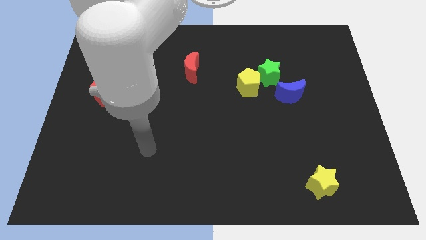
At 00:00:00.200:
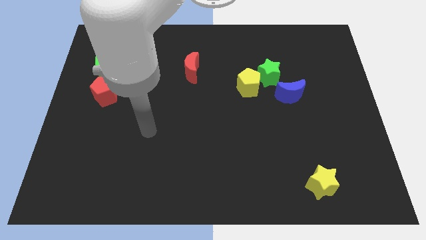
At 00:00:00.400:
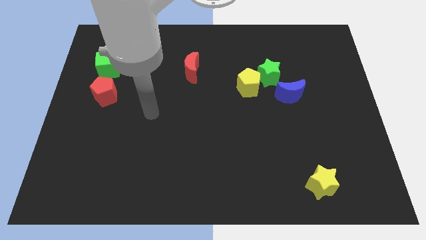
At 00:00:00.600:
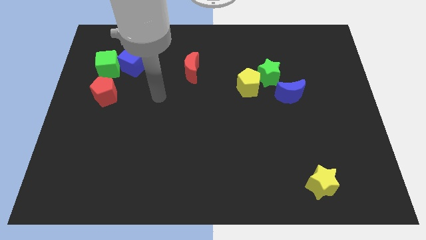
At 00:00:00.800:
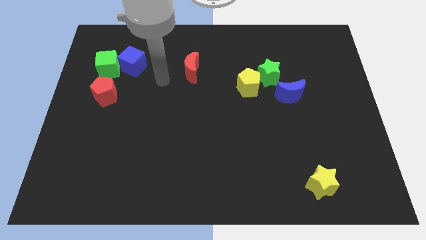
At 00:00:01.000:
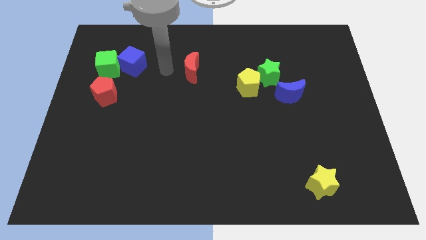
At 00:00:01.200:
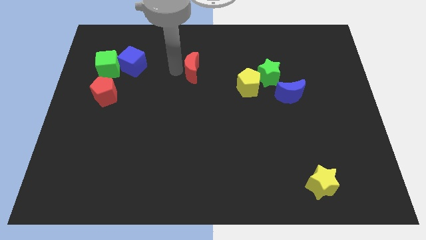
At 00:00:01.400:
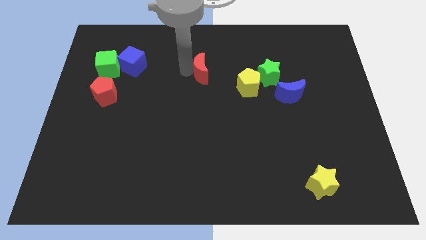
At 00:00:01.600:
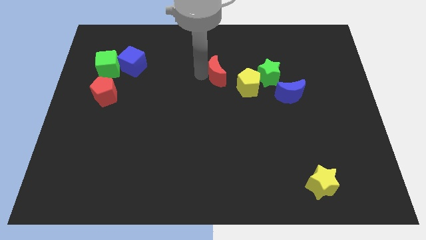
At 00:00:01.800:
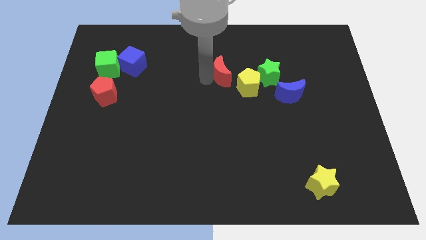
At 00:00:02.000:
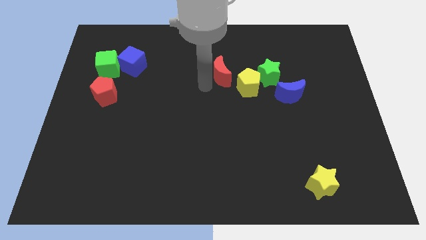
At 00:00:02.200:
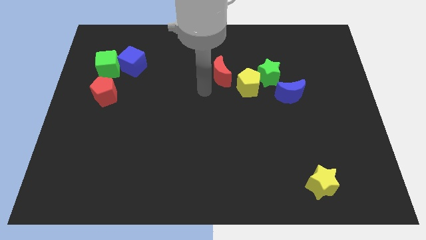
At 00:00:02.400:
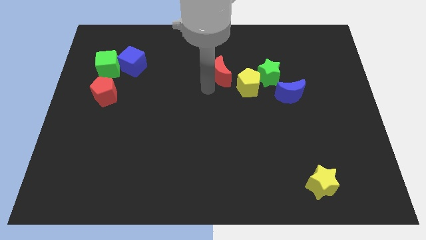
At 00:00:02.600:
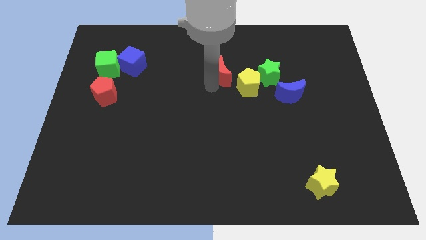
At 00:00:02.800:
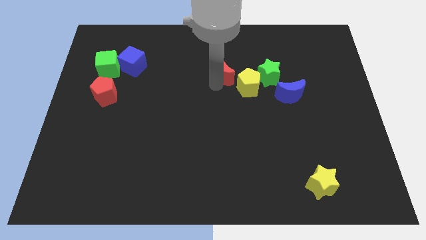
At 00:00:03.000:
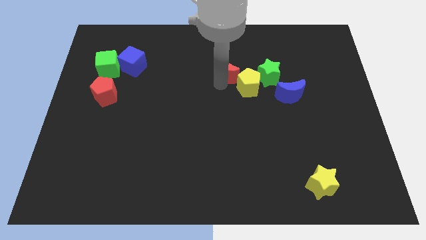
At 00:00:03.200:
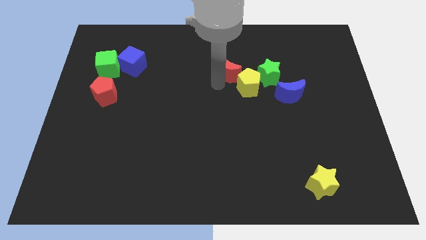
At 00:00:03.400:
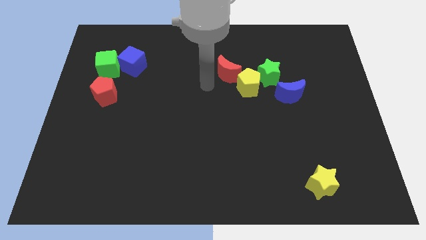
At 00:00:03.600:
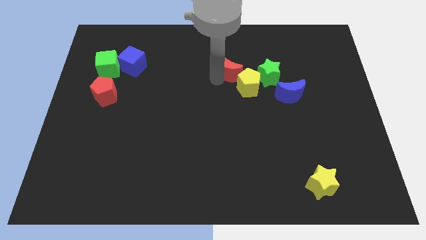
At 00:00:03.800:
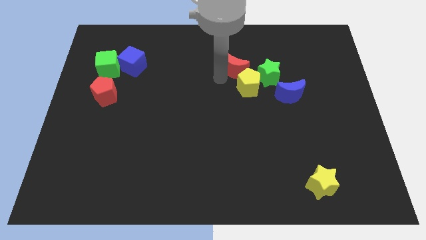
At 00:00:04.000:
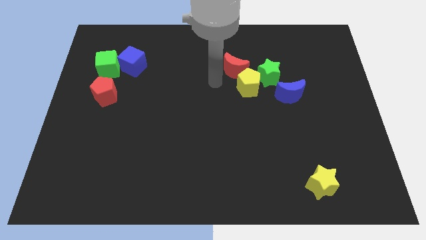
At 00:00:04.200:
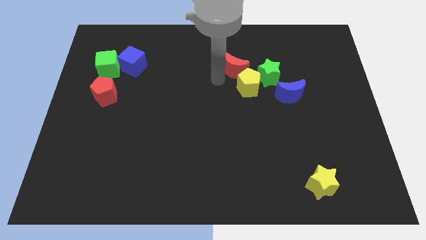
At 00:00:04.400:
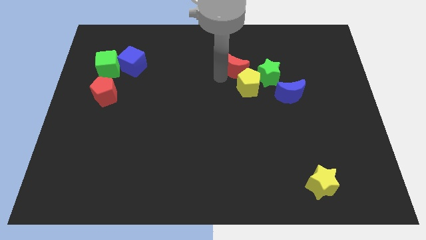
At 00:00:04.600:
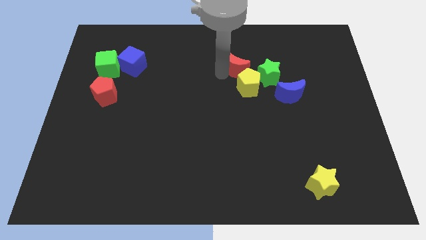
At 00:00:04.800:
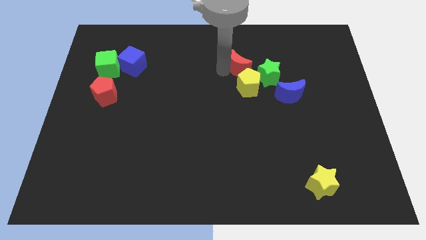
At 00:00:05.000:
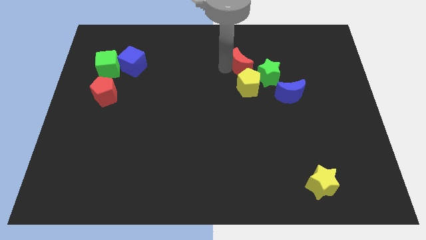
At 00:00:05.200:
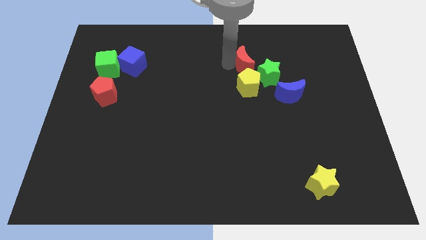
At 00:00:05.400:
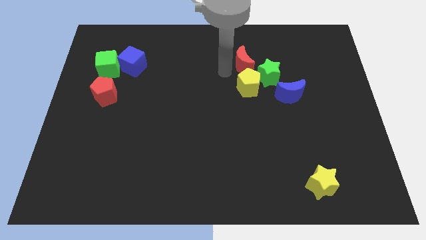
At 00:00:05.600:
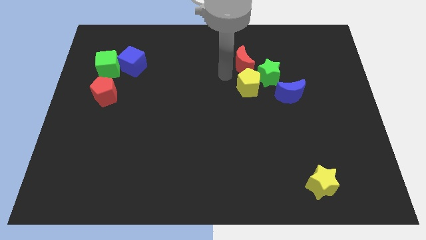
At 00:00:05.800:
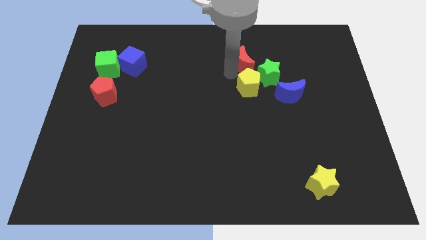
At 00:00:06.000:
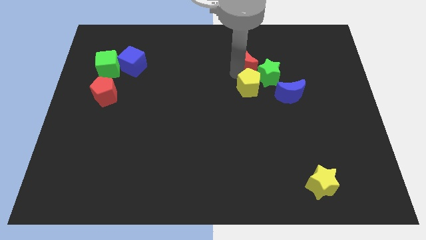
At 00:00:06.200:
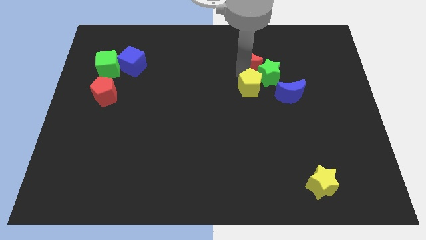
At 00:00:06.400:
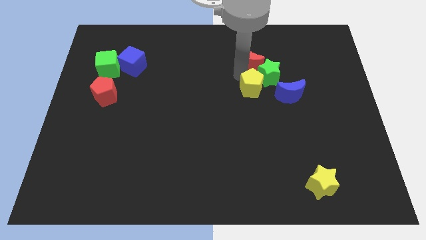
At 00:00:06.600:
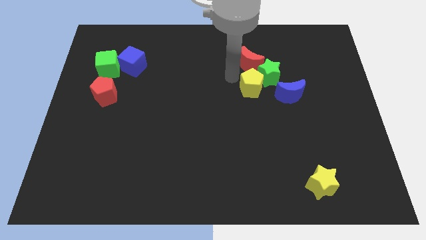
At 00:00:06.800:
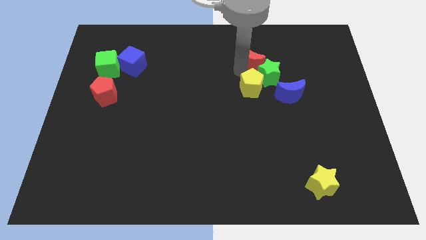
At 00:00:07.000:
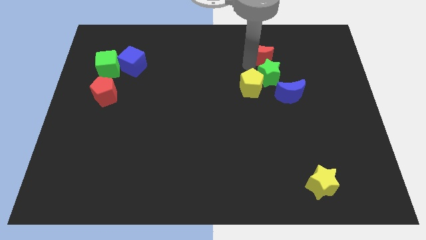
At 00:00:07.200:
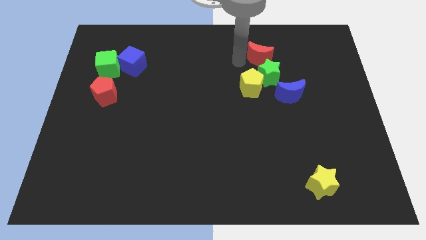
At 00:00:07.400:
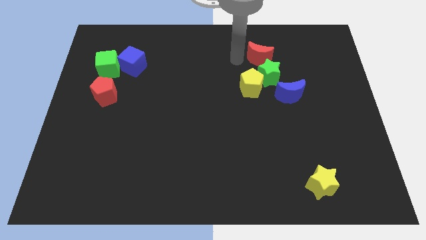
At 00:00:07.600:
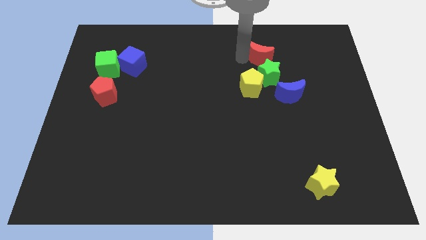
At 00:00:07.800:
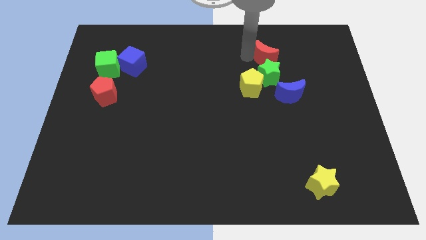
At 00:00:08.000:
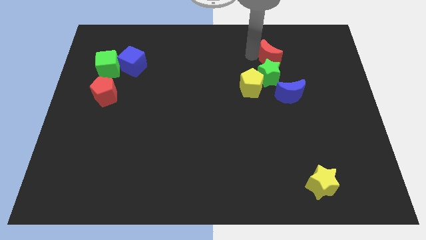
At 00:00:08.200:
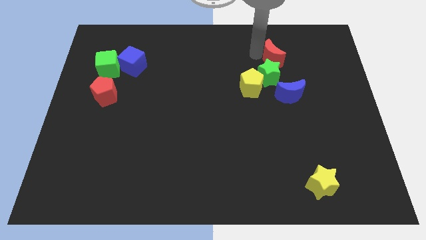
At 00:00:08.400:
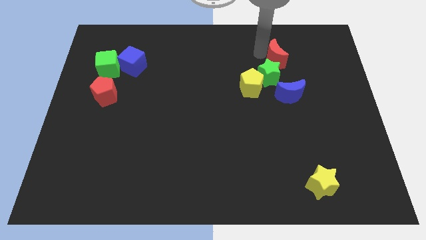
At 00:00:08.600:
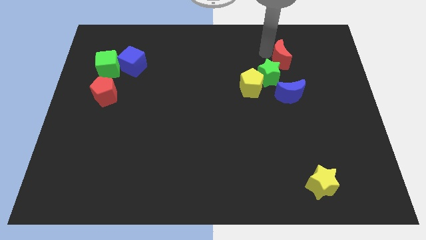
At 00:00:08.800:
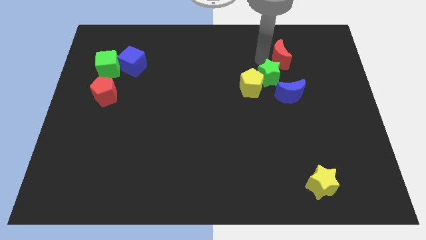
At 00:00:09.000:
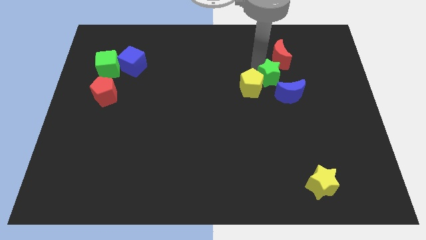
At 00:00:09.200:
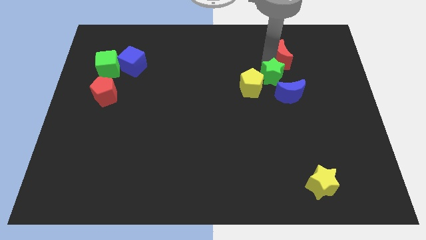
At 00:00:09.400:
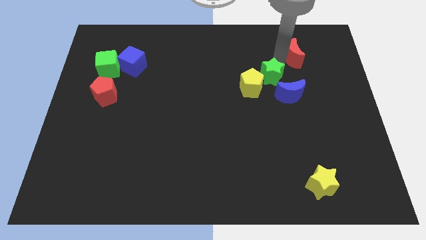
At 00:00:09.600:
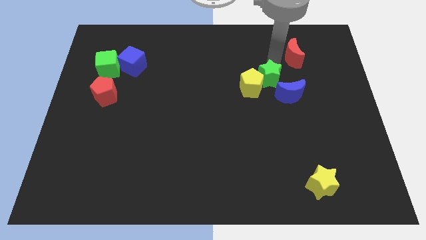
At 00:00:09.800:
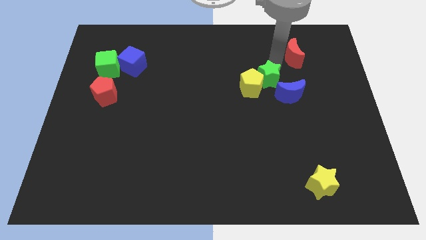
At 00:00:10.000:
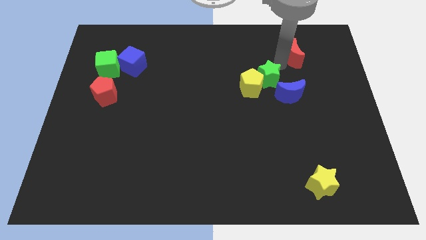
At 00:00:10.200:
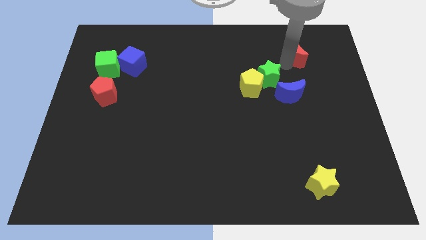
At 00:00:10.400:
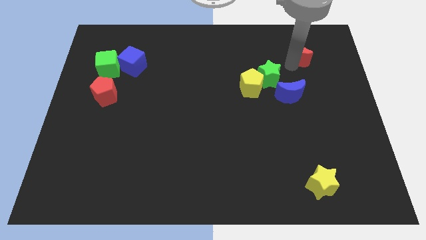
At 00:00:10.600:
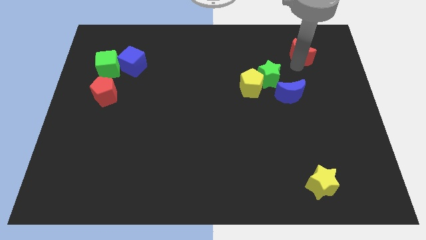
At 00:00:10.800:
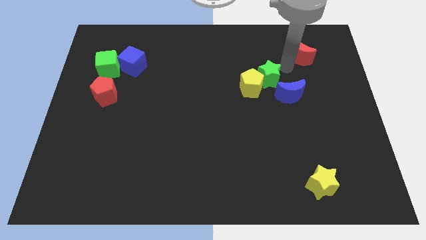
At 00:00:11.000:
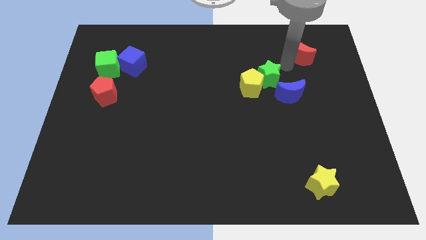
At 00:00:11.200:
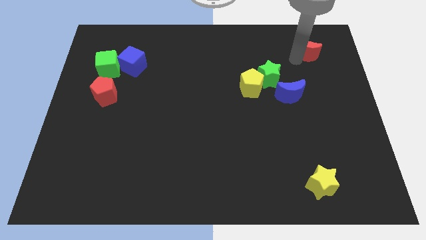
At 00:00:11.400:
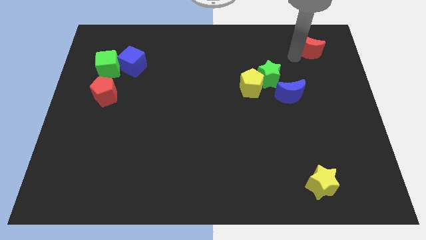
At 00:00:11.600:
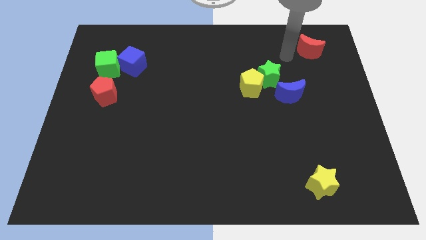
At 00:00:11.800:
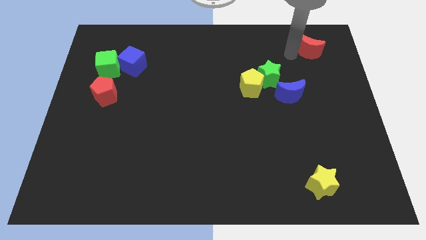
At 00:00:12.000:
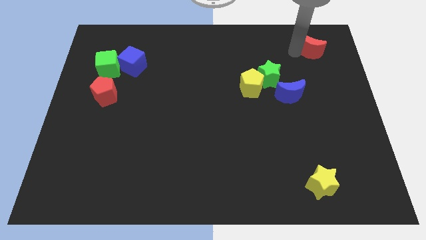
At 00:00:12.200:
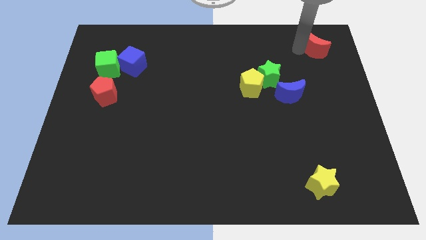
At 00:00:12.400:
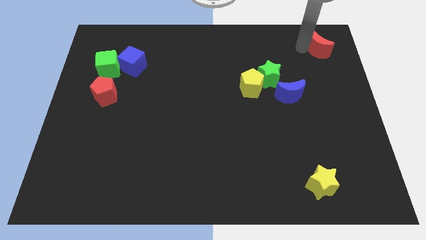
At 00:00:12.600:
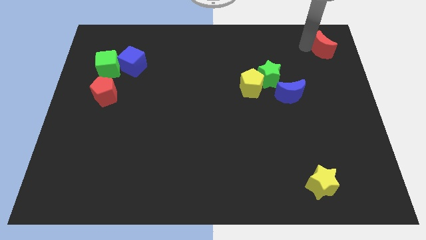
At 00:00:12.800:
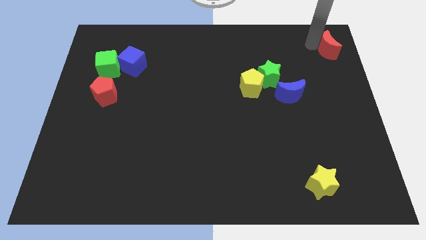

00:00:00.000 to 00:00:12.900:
slide the red moon to the top right of the board

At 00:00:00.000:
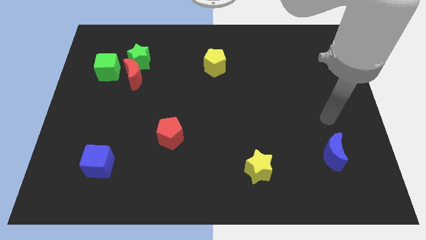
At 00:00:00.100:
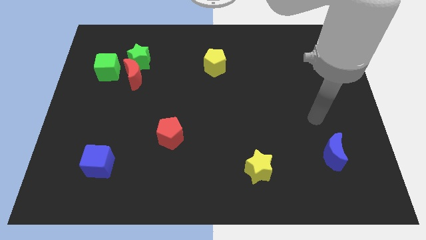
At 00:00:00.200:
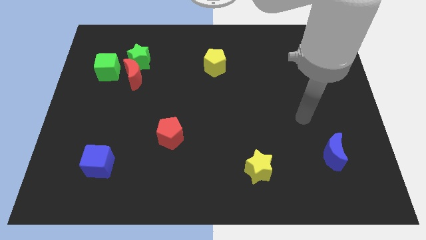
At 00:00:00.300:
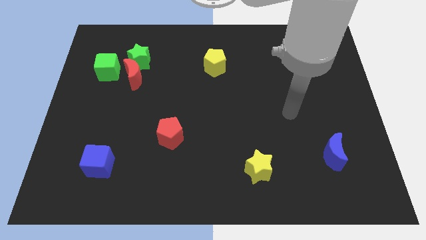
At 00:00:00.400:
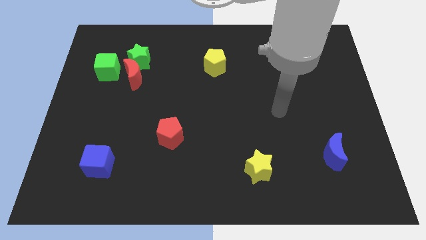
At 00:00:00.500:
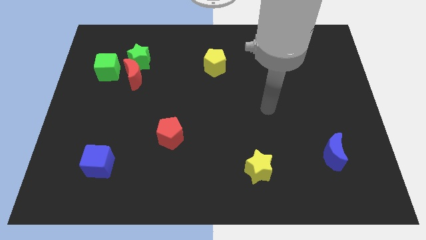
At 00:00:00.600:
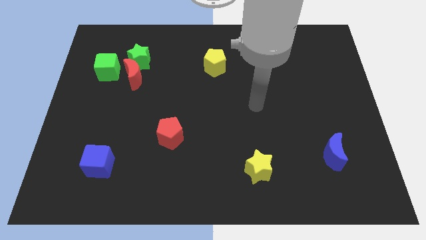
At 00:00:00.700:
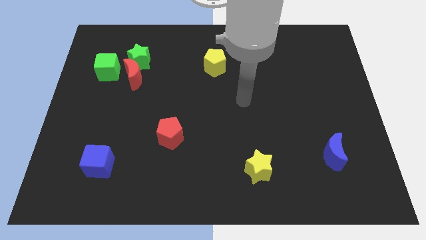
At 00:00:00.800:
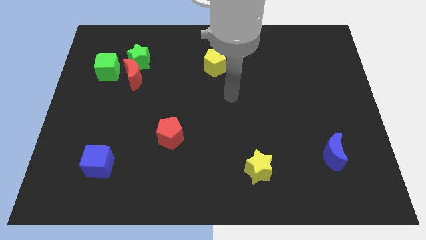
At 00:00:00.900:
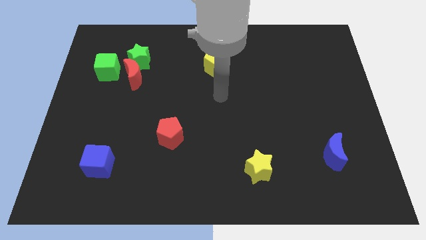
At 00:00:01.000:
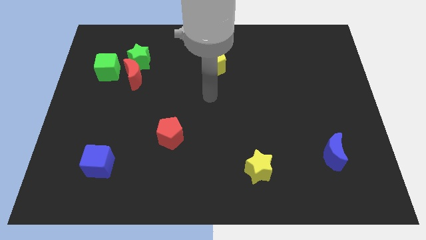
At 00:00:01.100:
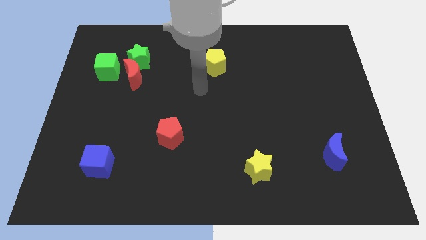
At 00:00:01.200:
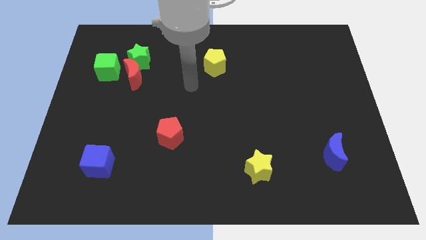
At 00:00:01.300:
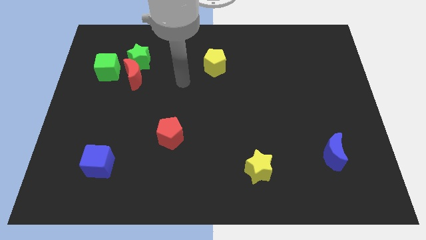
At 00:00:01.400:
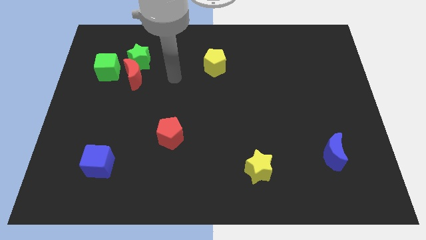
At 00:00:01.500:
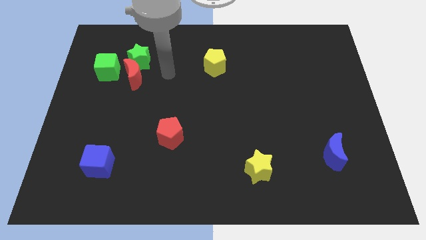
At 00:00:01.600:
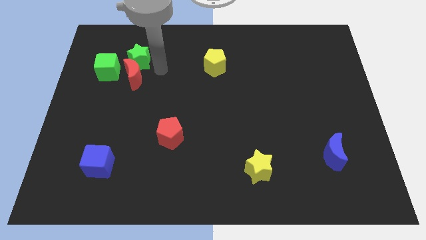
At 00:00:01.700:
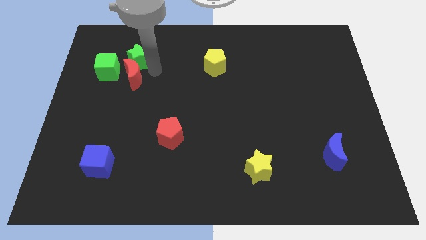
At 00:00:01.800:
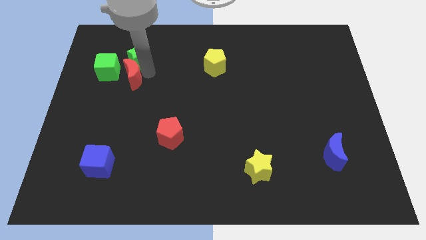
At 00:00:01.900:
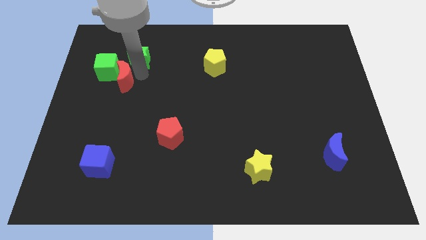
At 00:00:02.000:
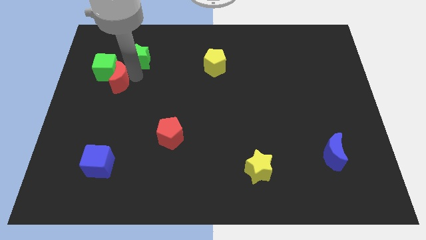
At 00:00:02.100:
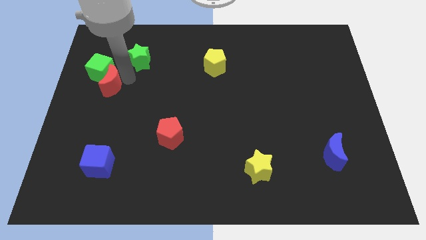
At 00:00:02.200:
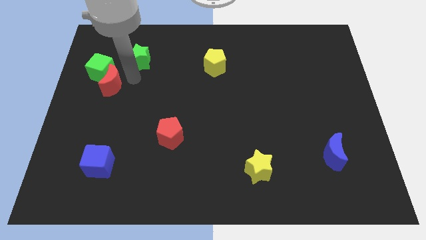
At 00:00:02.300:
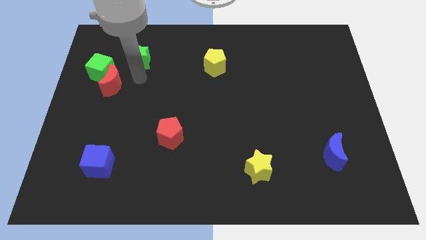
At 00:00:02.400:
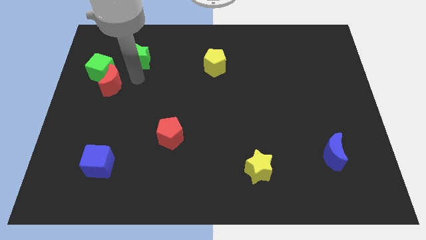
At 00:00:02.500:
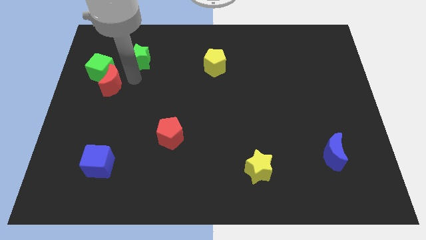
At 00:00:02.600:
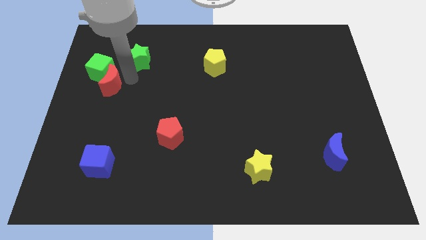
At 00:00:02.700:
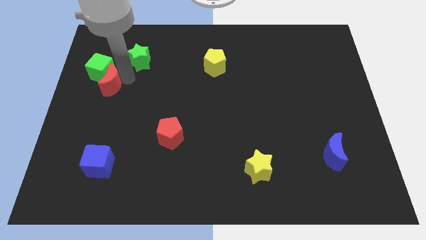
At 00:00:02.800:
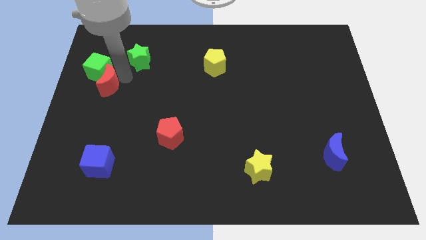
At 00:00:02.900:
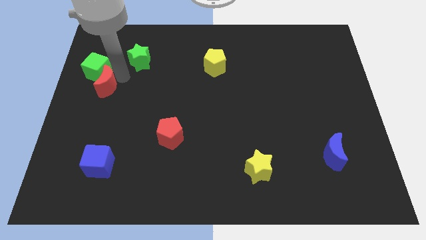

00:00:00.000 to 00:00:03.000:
put the red moon to the center left
